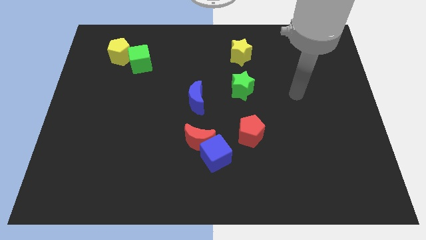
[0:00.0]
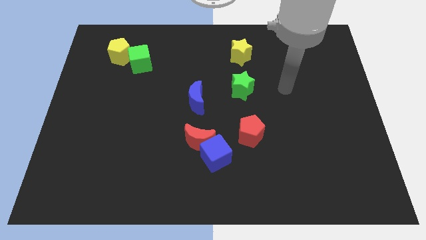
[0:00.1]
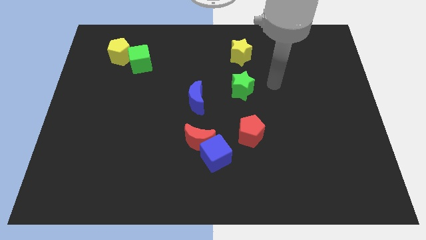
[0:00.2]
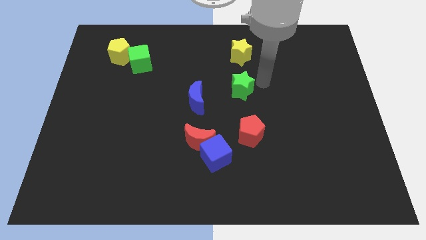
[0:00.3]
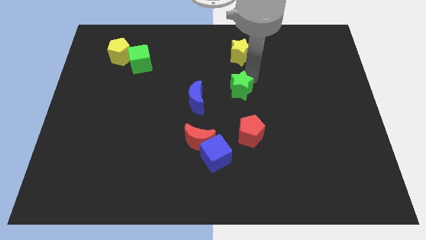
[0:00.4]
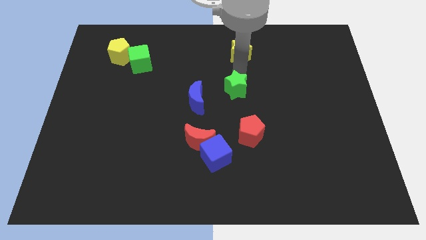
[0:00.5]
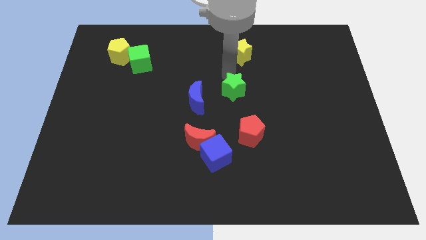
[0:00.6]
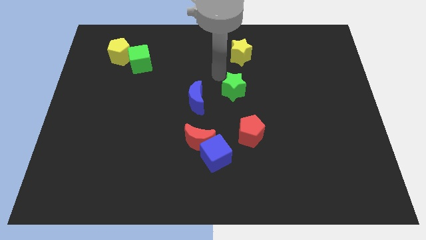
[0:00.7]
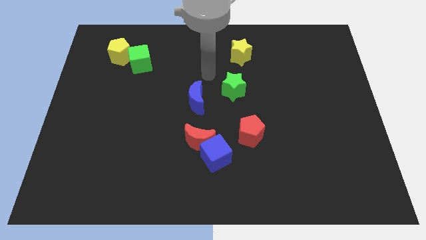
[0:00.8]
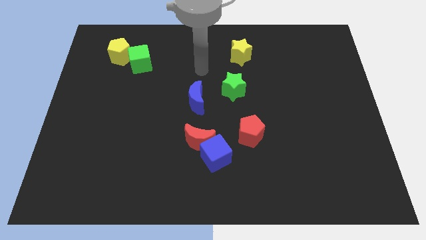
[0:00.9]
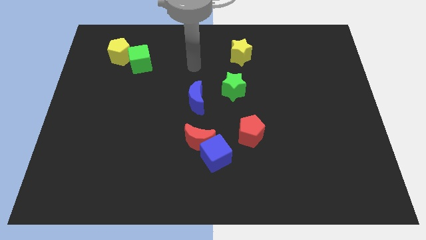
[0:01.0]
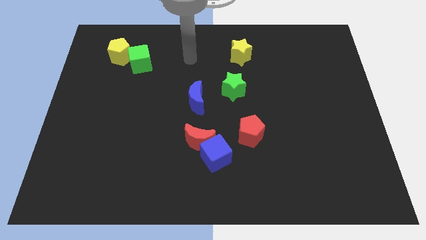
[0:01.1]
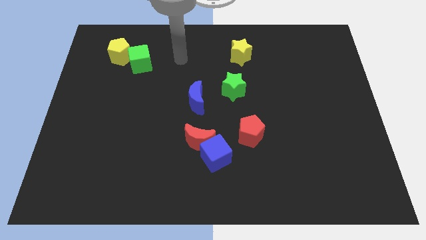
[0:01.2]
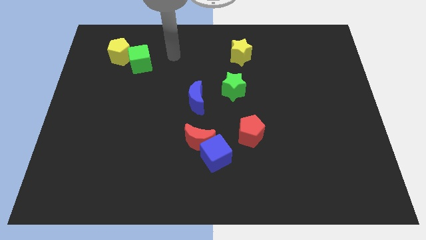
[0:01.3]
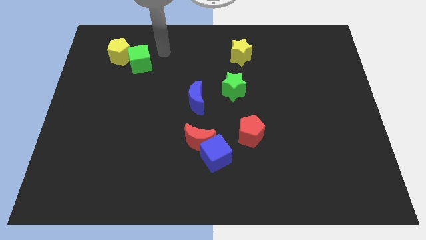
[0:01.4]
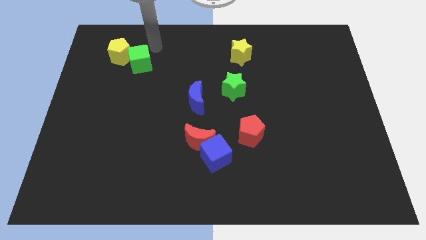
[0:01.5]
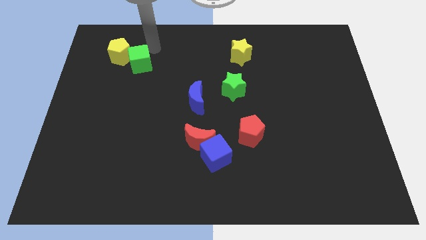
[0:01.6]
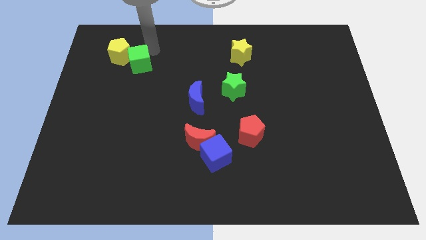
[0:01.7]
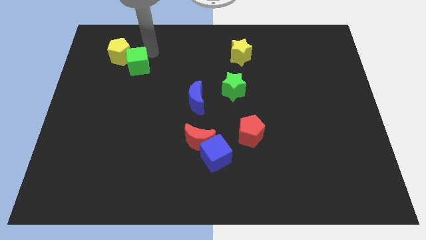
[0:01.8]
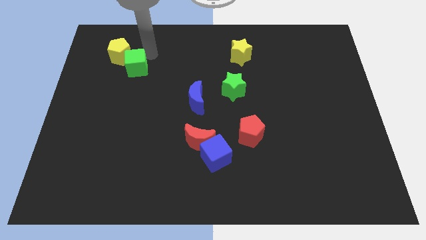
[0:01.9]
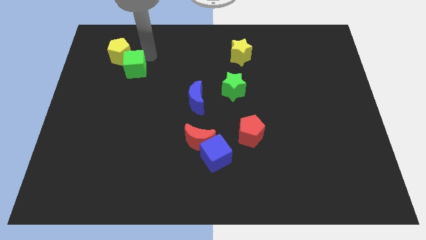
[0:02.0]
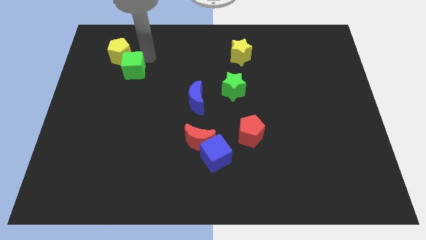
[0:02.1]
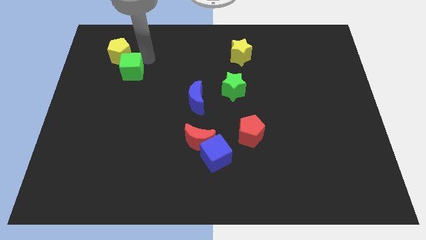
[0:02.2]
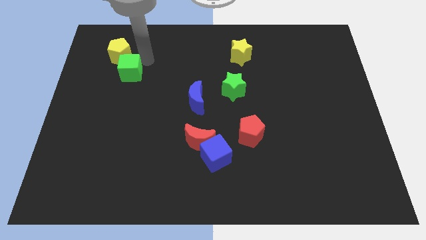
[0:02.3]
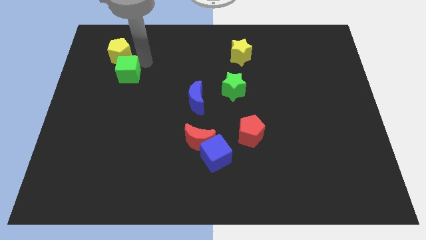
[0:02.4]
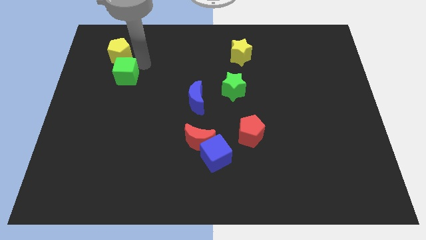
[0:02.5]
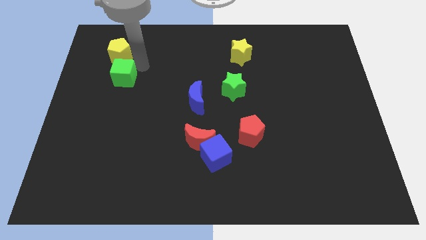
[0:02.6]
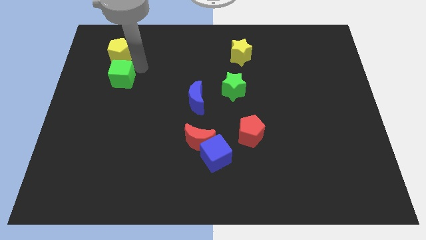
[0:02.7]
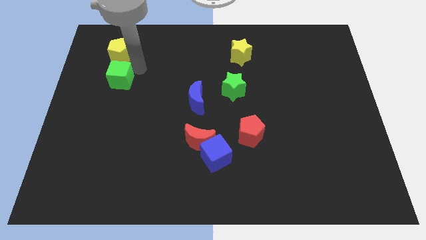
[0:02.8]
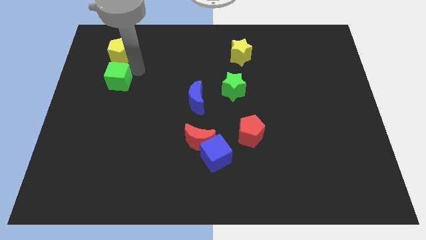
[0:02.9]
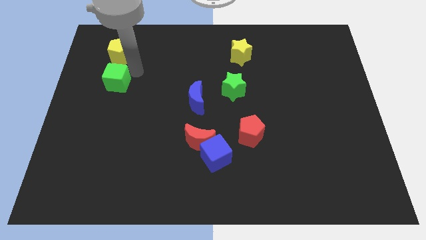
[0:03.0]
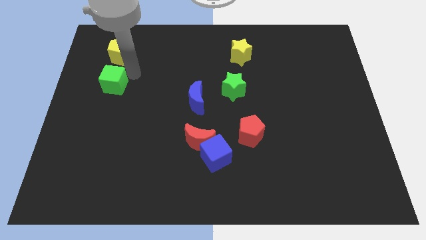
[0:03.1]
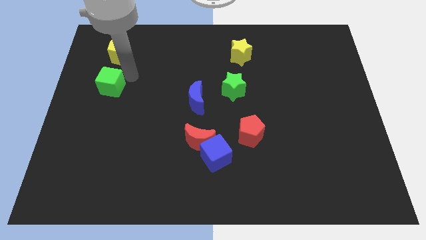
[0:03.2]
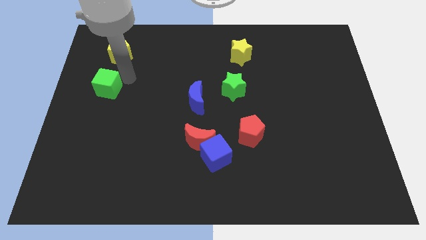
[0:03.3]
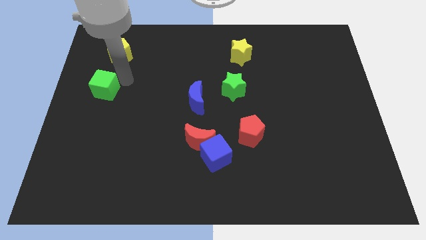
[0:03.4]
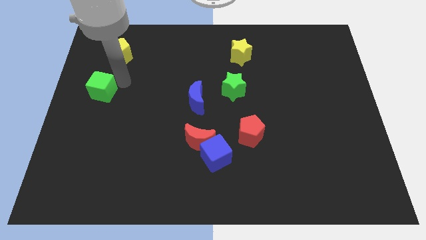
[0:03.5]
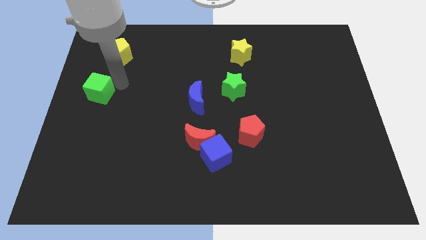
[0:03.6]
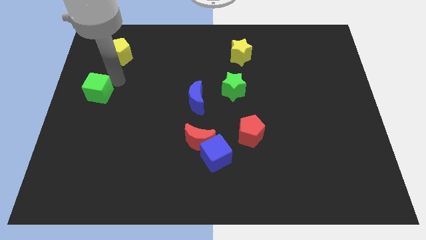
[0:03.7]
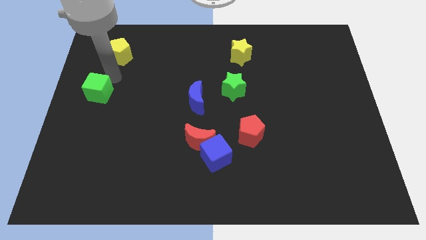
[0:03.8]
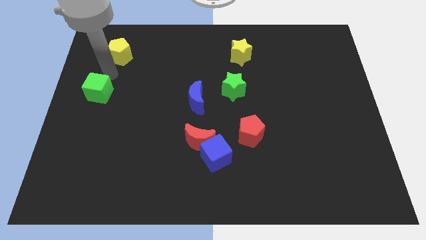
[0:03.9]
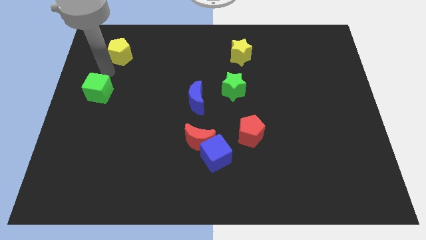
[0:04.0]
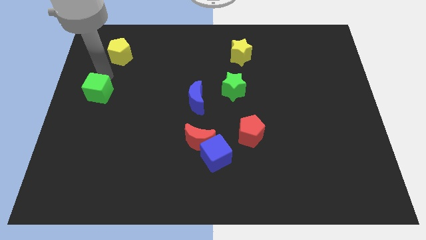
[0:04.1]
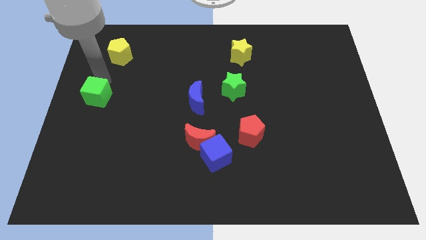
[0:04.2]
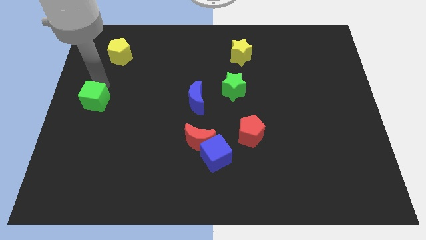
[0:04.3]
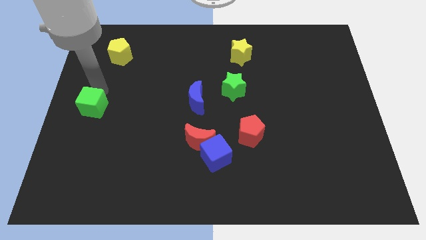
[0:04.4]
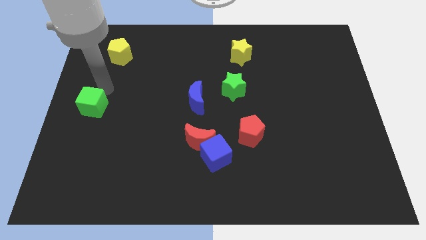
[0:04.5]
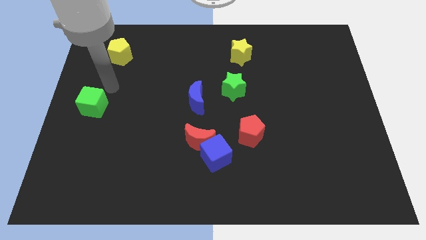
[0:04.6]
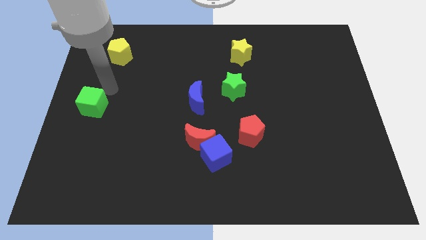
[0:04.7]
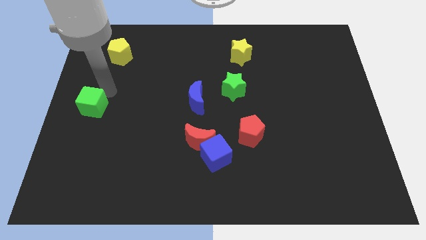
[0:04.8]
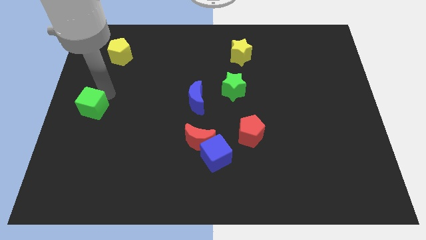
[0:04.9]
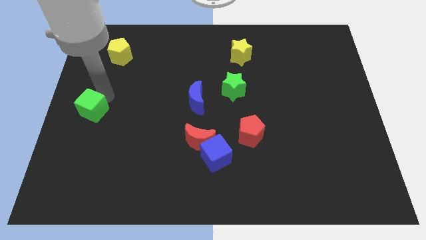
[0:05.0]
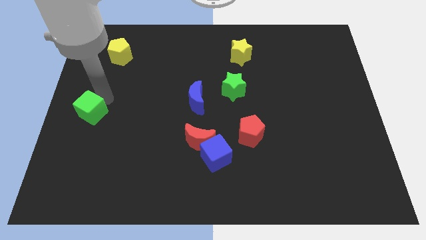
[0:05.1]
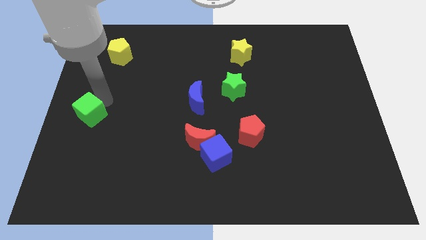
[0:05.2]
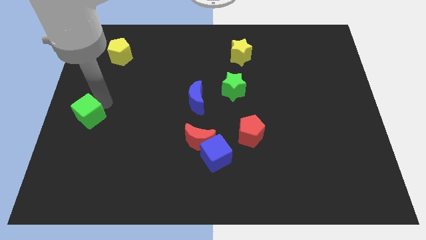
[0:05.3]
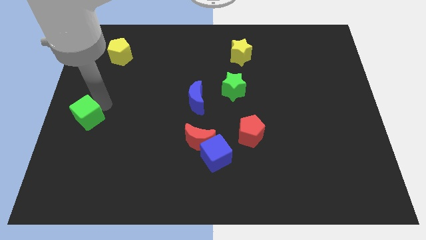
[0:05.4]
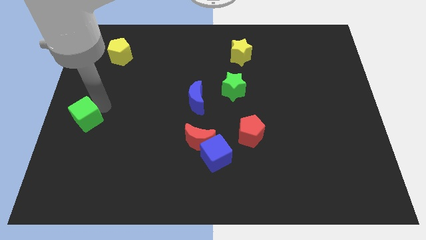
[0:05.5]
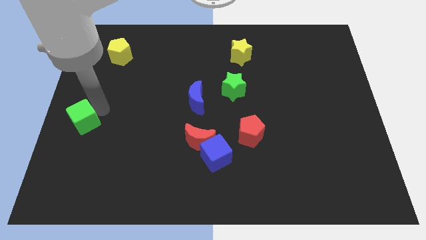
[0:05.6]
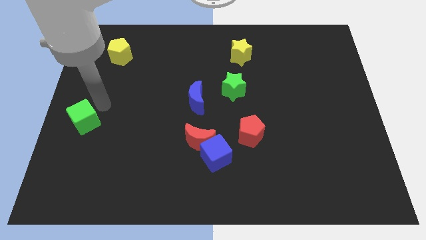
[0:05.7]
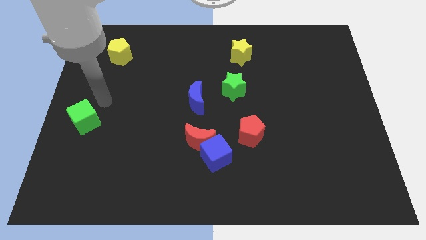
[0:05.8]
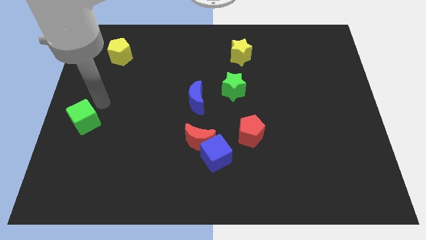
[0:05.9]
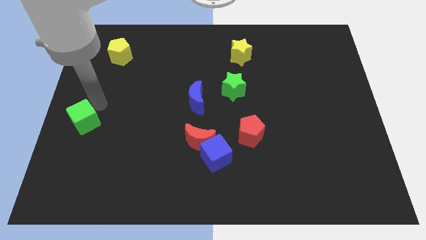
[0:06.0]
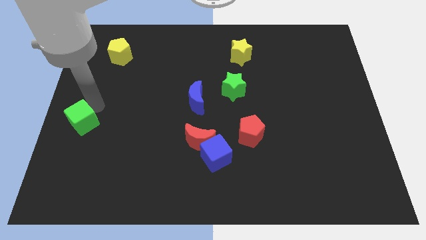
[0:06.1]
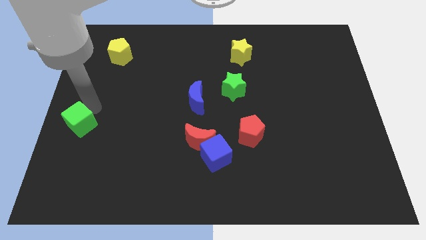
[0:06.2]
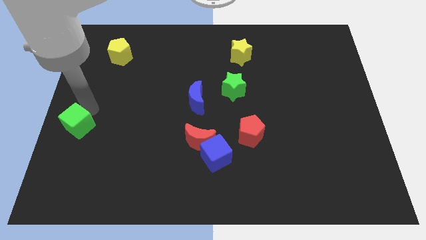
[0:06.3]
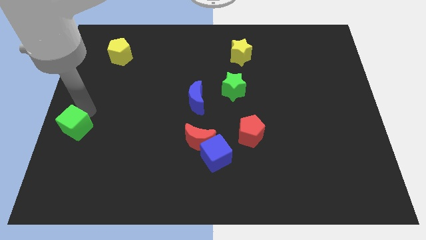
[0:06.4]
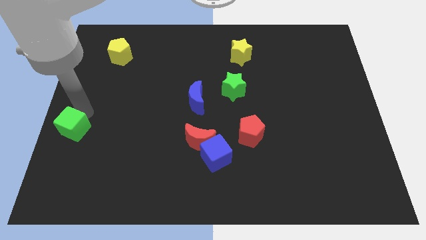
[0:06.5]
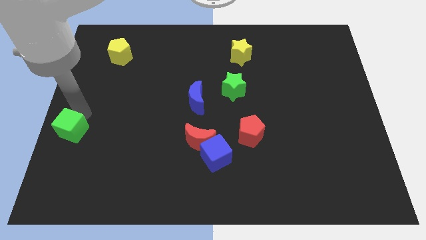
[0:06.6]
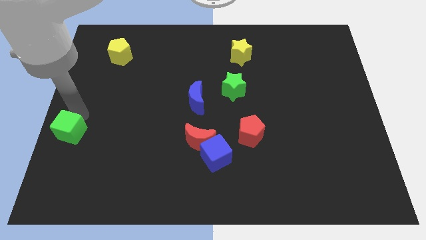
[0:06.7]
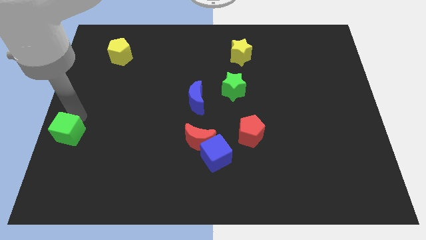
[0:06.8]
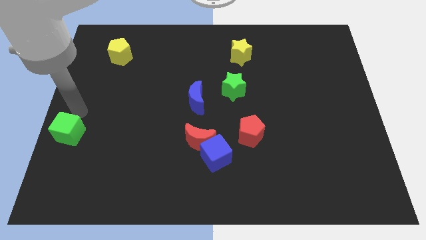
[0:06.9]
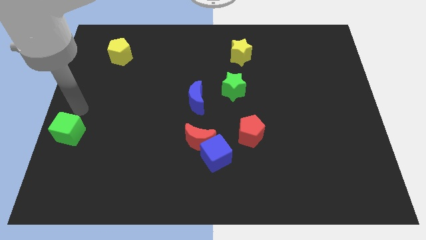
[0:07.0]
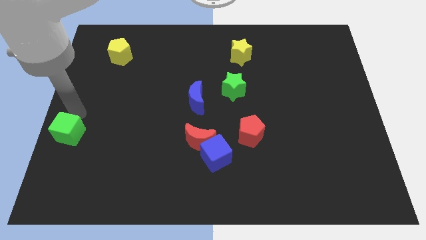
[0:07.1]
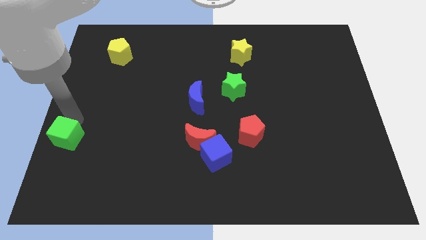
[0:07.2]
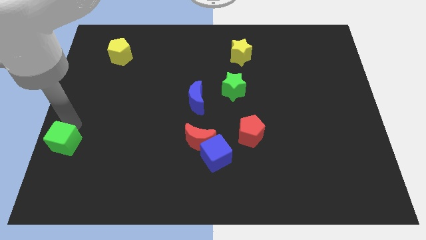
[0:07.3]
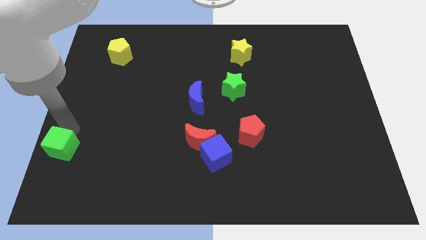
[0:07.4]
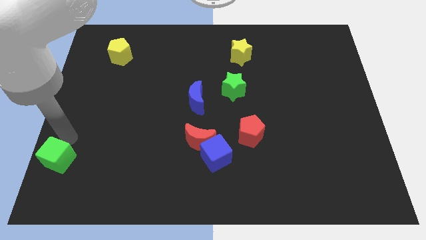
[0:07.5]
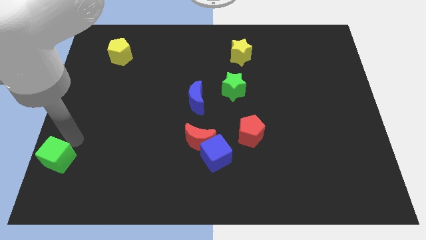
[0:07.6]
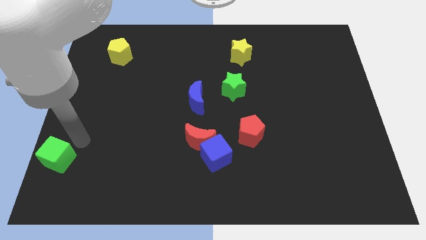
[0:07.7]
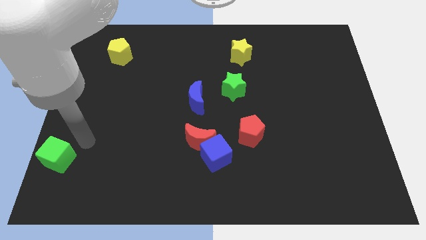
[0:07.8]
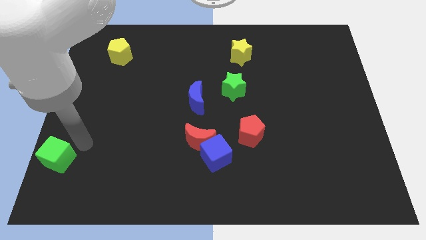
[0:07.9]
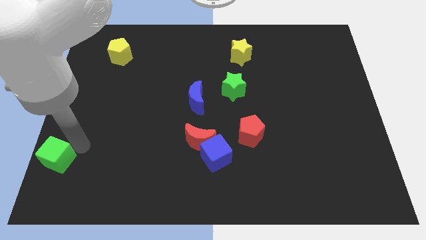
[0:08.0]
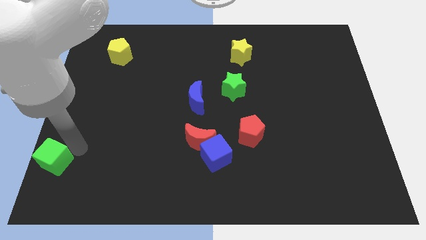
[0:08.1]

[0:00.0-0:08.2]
push the green cube to the bottom left
